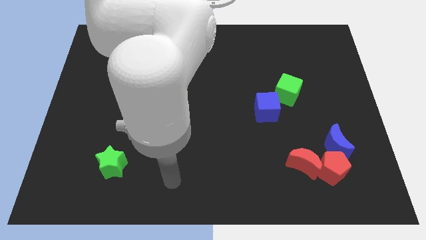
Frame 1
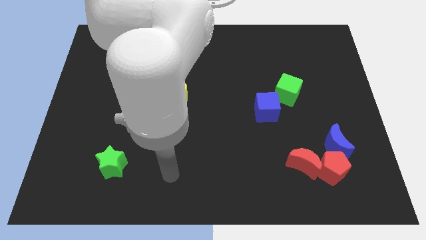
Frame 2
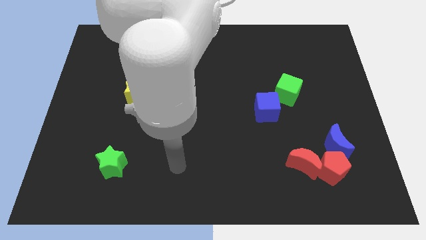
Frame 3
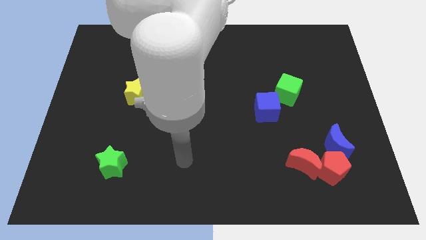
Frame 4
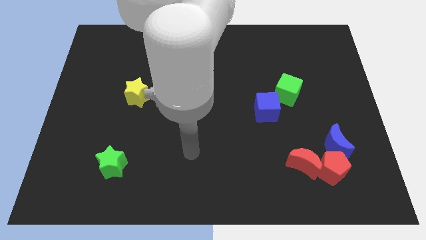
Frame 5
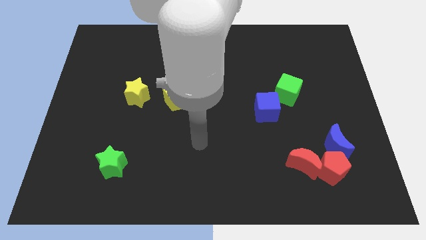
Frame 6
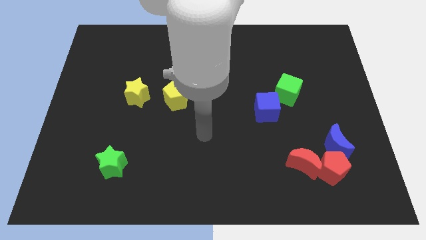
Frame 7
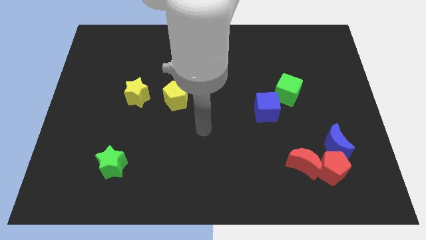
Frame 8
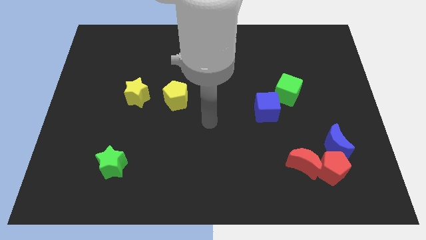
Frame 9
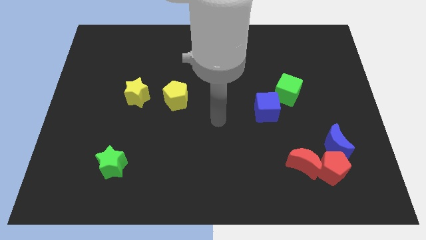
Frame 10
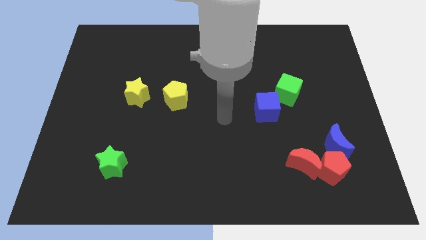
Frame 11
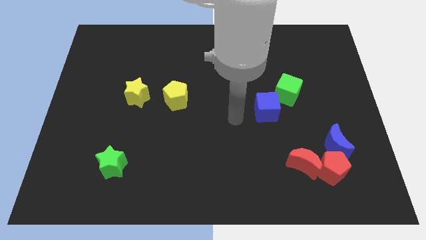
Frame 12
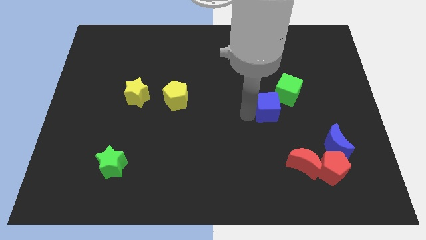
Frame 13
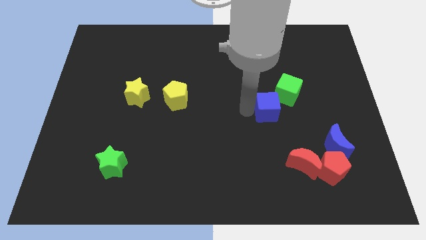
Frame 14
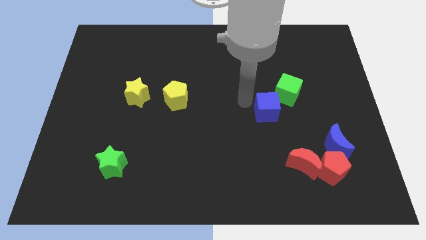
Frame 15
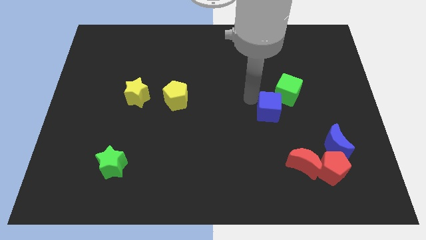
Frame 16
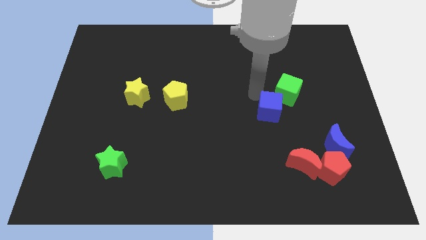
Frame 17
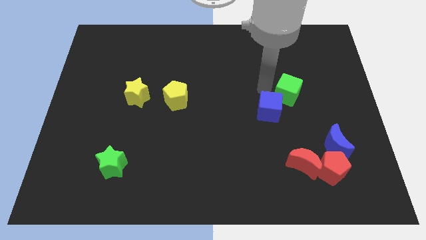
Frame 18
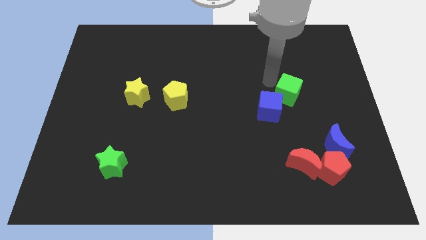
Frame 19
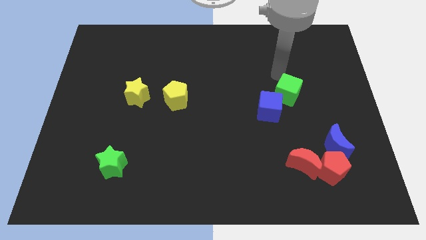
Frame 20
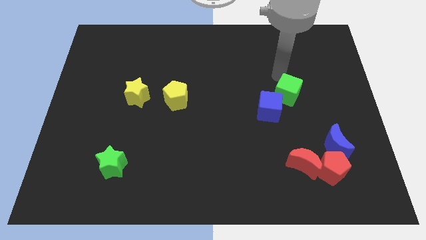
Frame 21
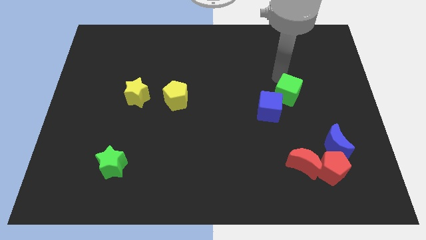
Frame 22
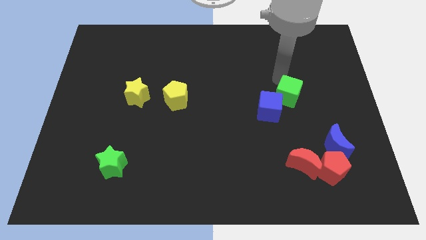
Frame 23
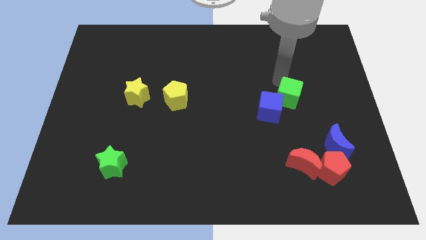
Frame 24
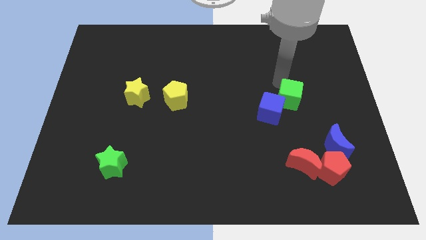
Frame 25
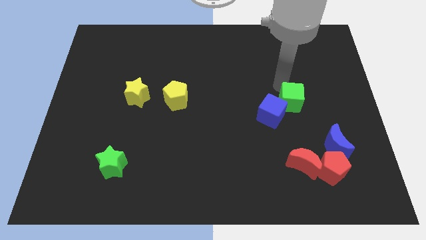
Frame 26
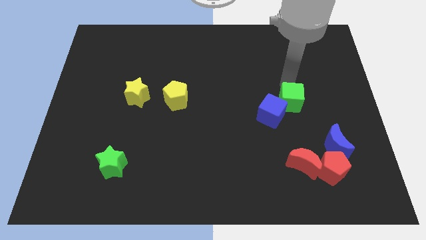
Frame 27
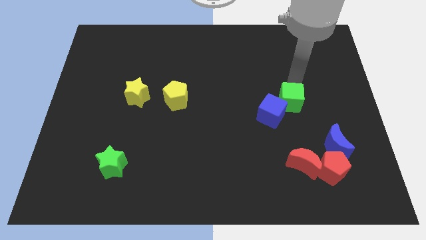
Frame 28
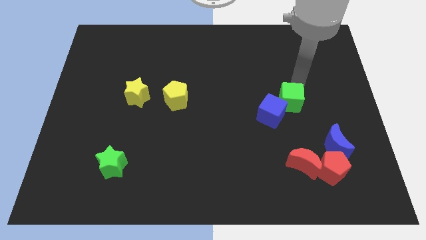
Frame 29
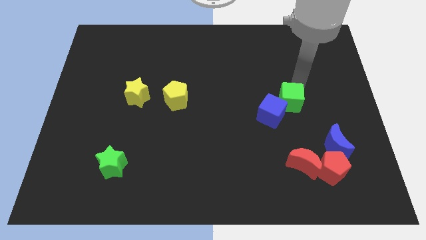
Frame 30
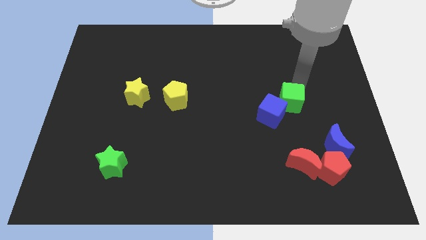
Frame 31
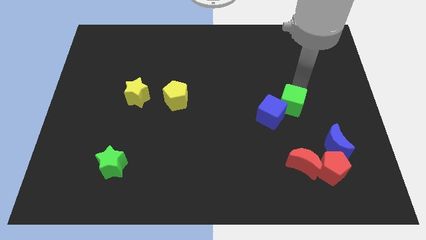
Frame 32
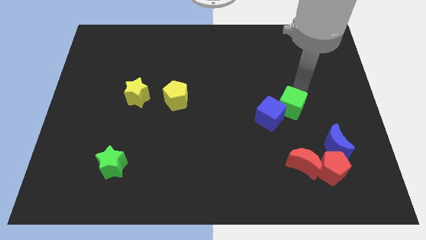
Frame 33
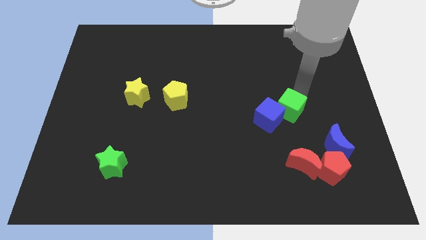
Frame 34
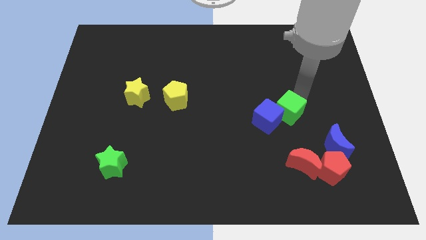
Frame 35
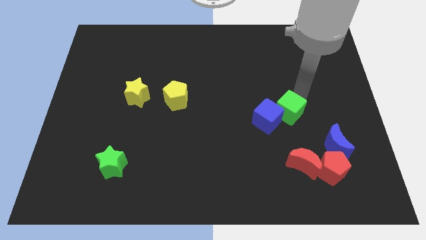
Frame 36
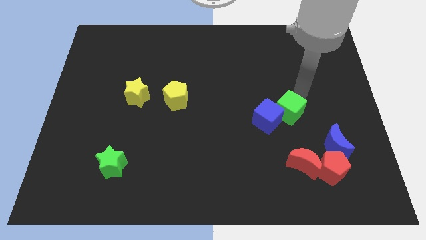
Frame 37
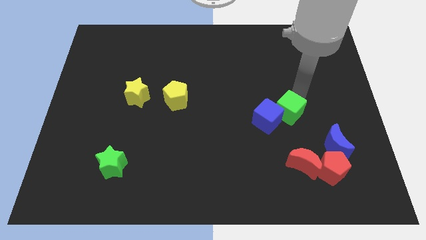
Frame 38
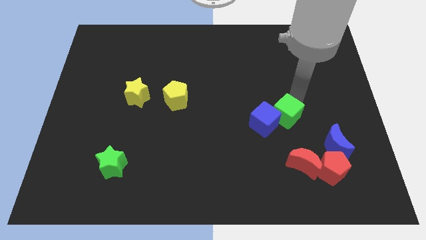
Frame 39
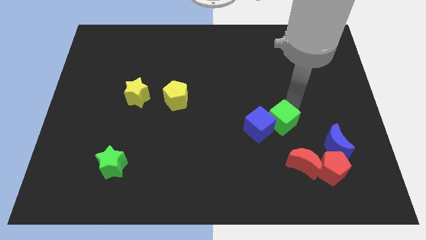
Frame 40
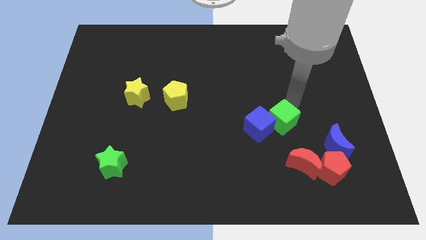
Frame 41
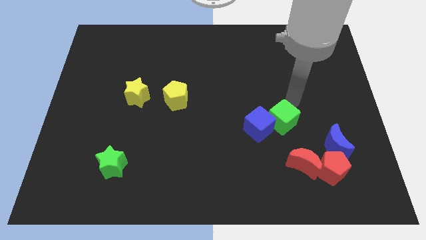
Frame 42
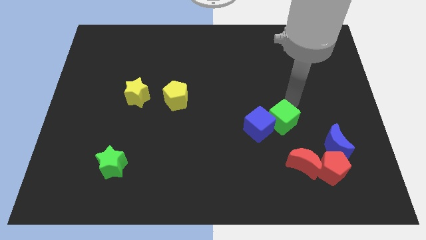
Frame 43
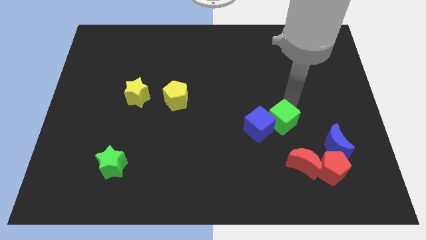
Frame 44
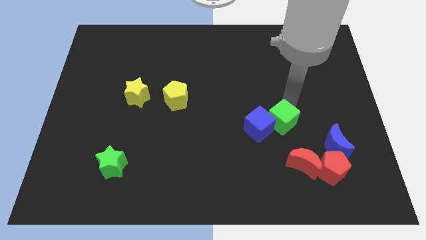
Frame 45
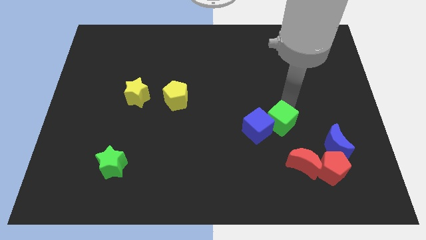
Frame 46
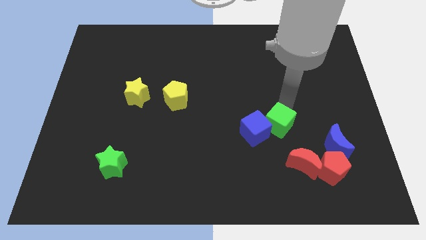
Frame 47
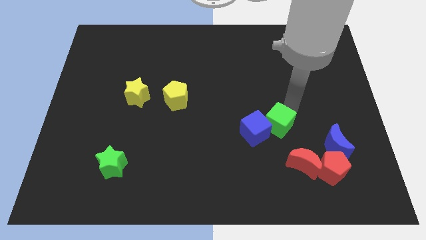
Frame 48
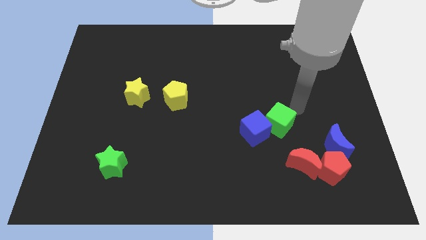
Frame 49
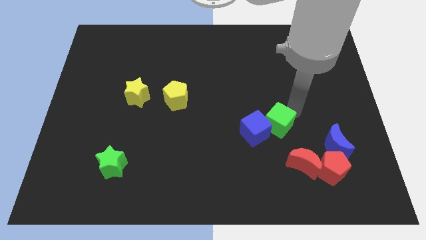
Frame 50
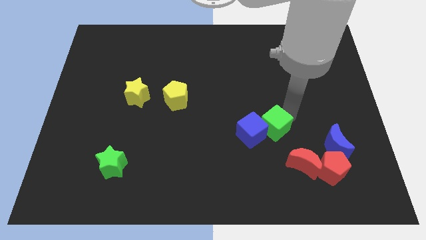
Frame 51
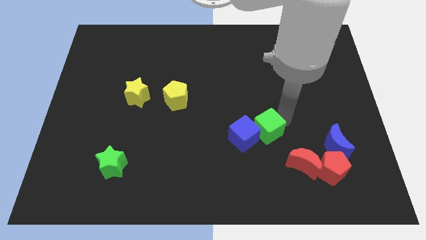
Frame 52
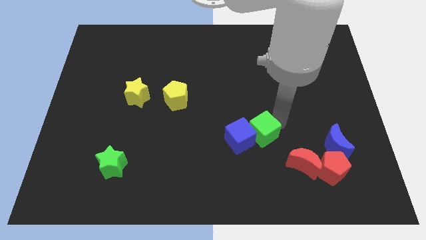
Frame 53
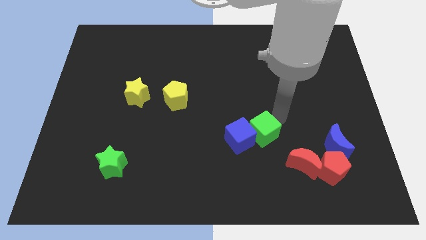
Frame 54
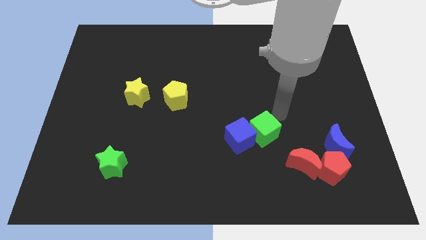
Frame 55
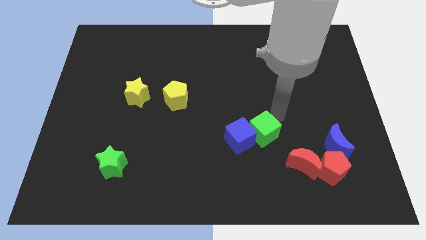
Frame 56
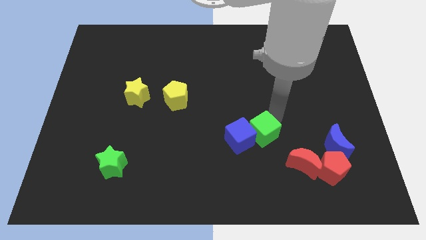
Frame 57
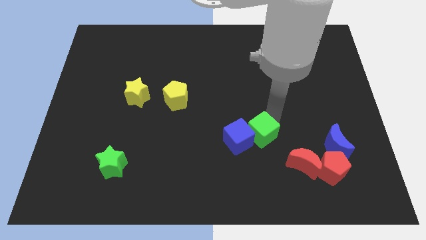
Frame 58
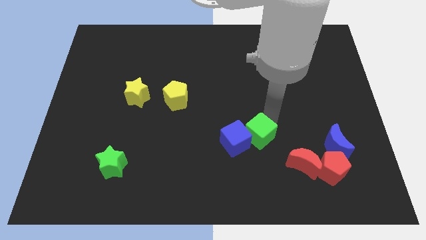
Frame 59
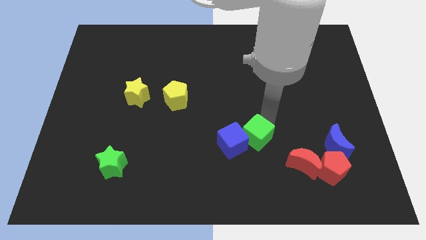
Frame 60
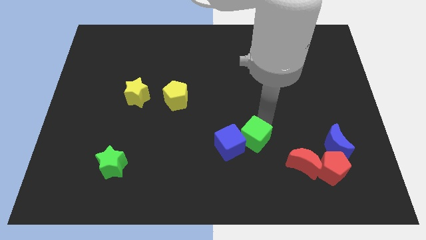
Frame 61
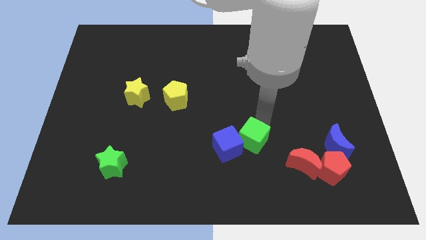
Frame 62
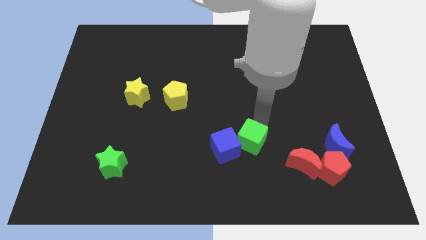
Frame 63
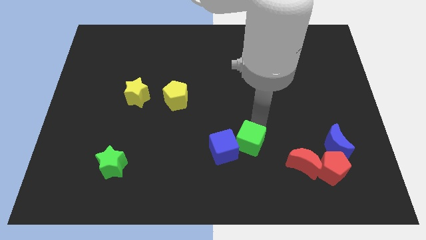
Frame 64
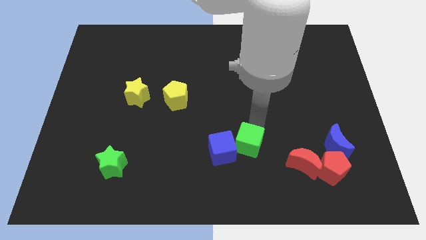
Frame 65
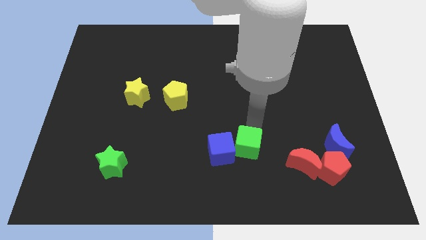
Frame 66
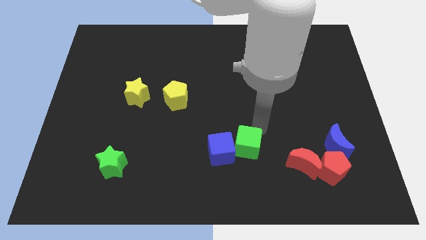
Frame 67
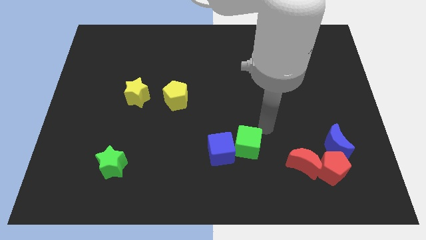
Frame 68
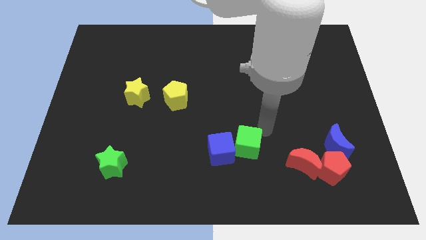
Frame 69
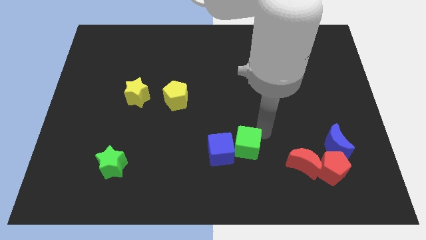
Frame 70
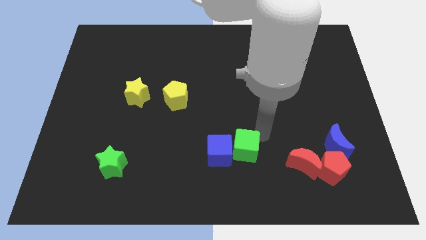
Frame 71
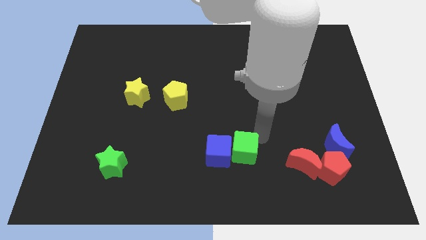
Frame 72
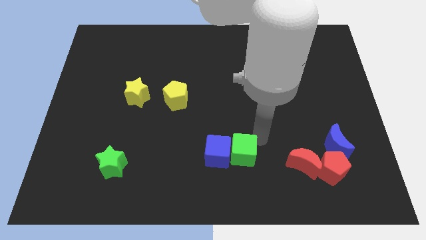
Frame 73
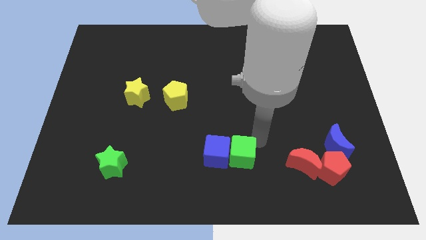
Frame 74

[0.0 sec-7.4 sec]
push the green cube downwards and then left

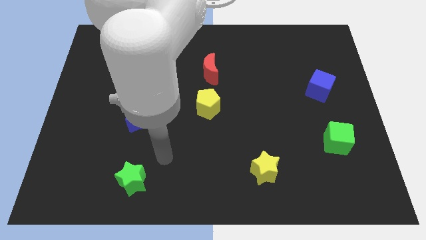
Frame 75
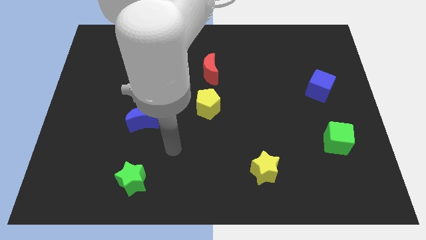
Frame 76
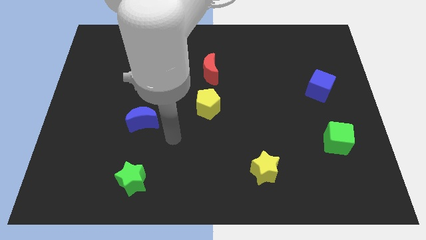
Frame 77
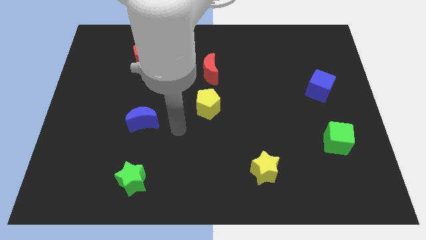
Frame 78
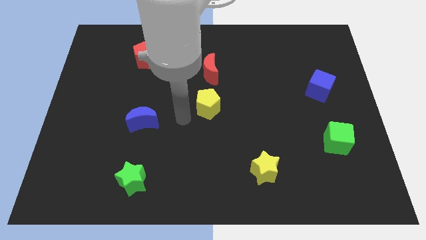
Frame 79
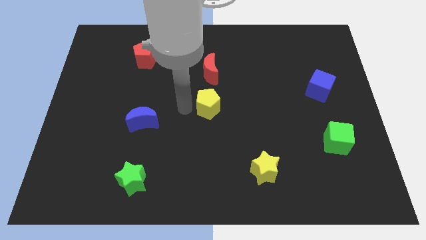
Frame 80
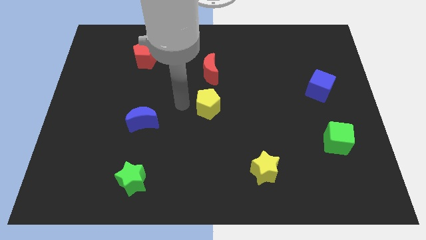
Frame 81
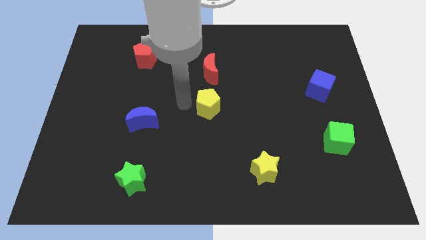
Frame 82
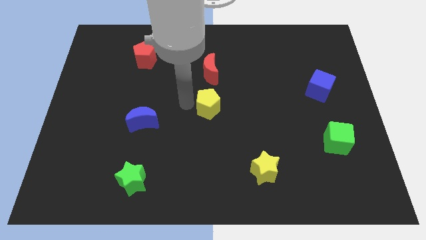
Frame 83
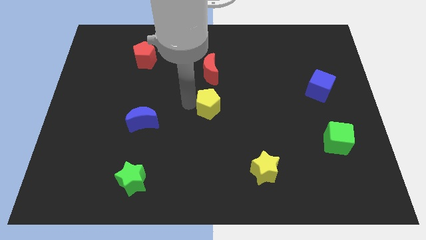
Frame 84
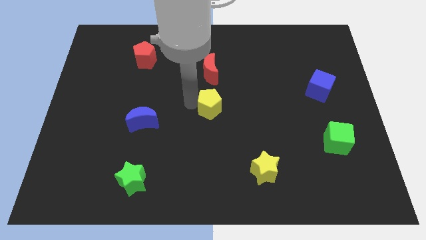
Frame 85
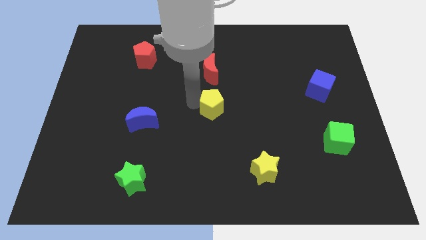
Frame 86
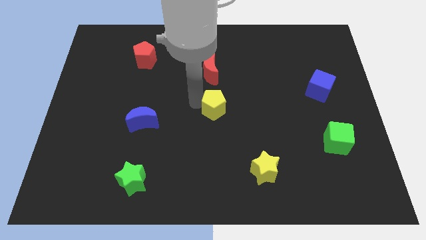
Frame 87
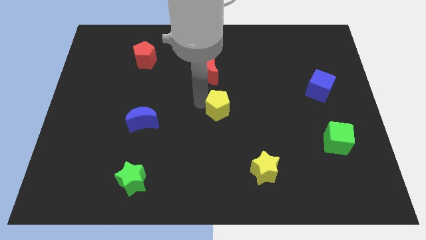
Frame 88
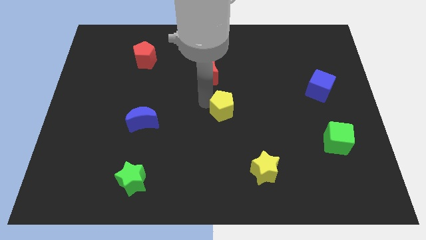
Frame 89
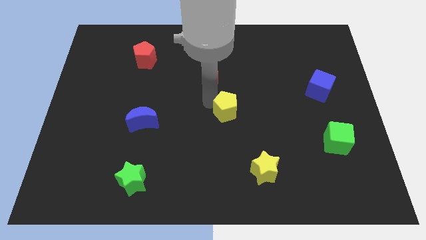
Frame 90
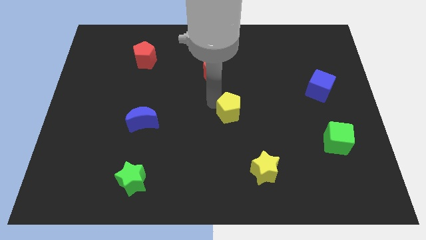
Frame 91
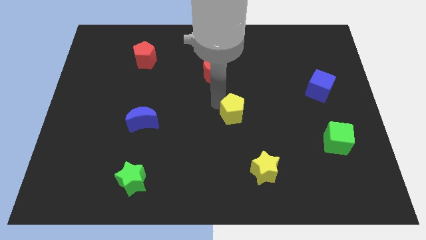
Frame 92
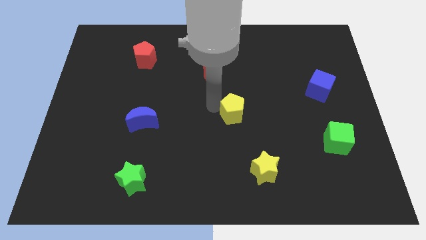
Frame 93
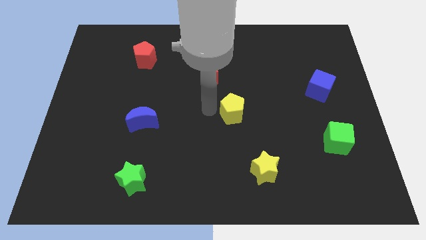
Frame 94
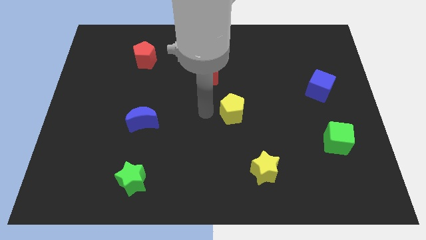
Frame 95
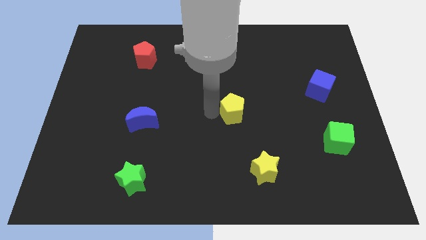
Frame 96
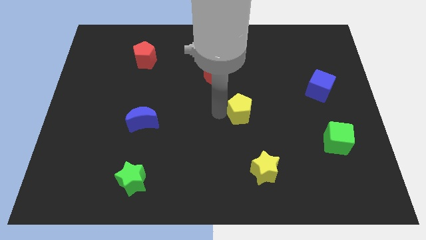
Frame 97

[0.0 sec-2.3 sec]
push the yellow pentagon somewhat to the right
